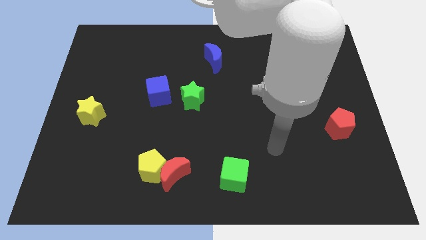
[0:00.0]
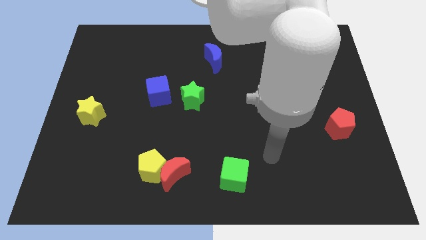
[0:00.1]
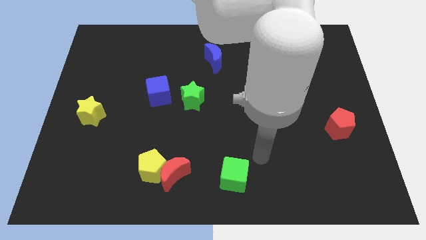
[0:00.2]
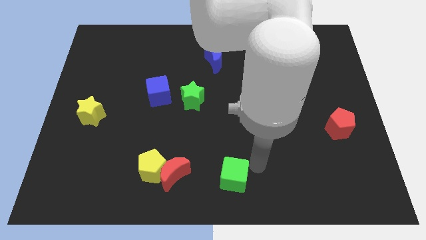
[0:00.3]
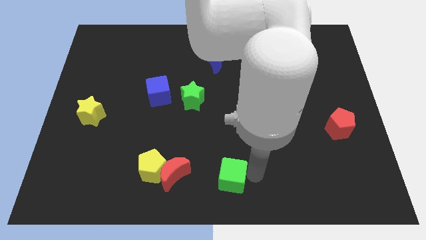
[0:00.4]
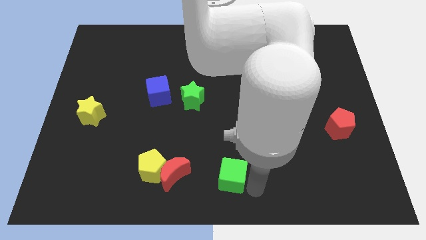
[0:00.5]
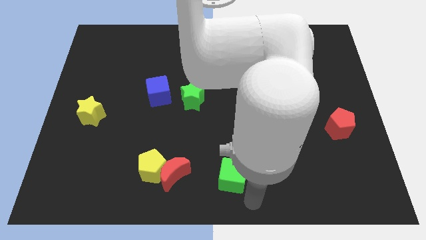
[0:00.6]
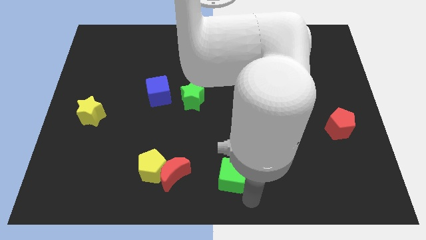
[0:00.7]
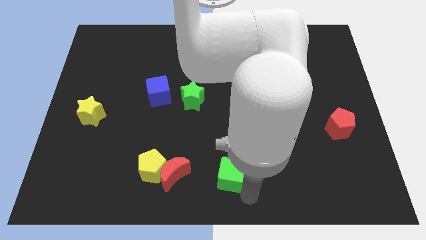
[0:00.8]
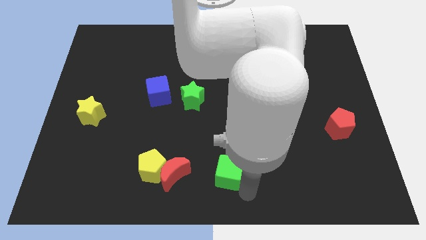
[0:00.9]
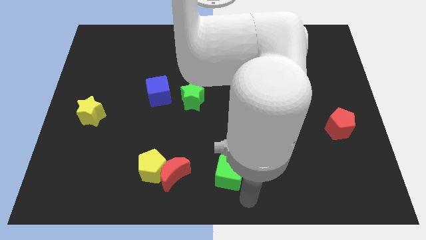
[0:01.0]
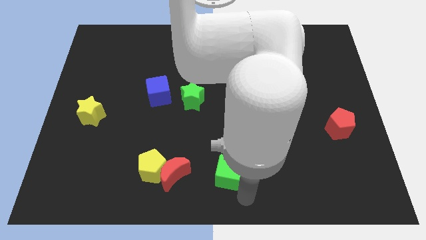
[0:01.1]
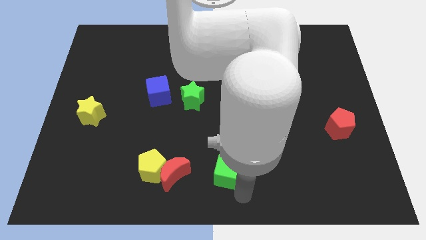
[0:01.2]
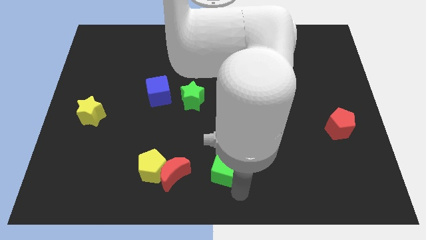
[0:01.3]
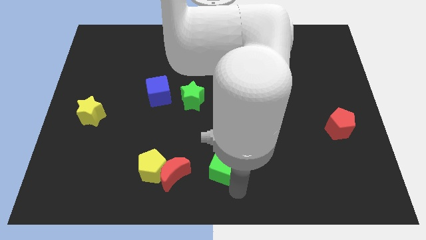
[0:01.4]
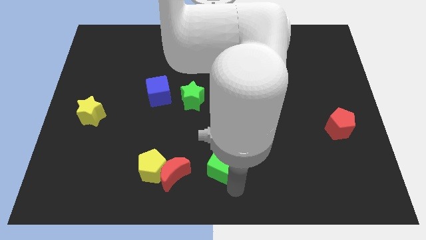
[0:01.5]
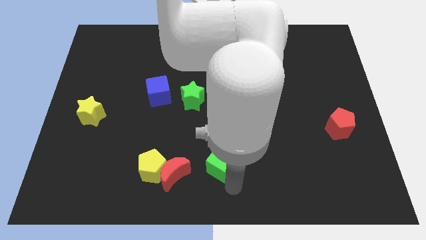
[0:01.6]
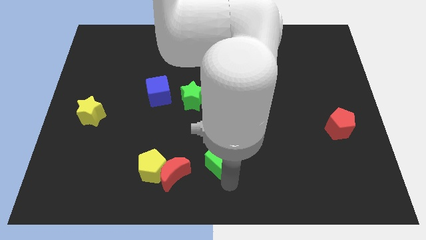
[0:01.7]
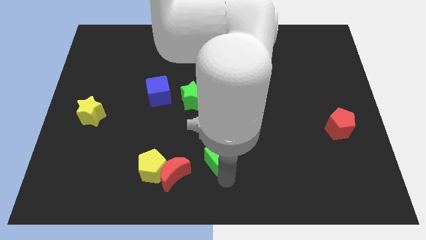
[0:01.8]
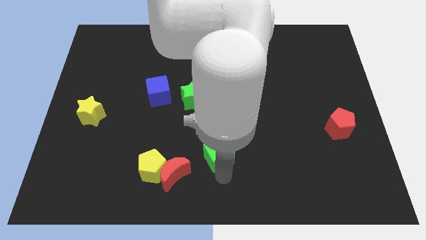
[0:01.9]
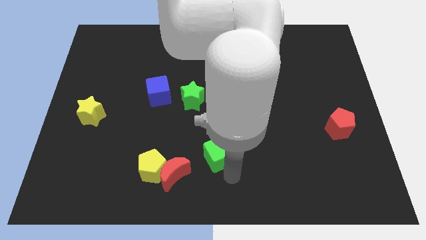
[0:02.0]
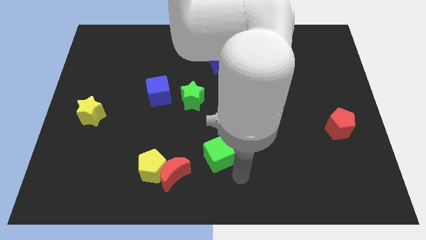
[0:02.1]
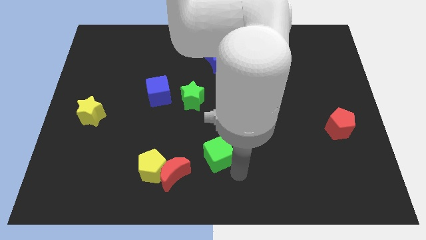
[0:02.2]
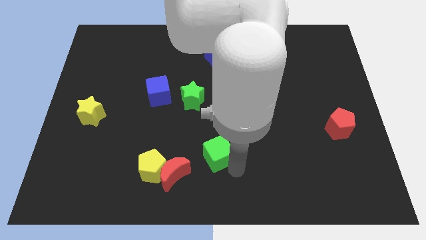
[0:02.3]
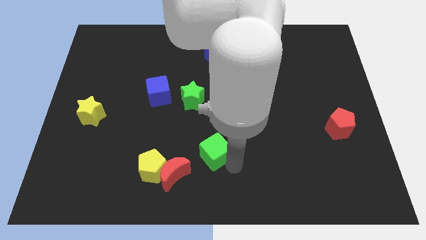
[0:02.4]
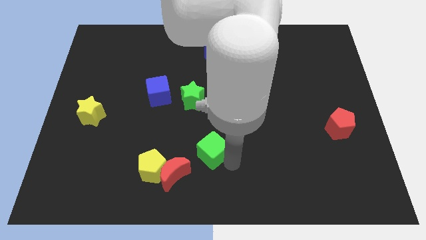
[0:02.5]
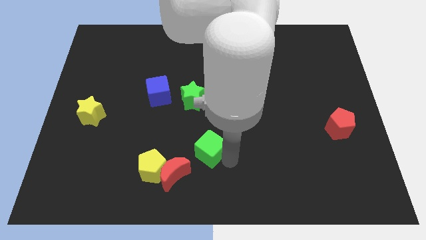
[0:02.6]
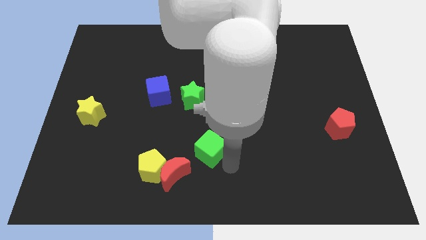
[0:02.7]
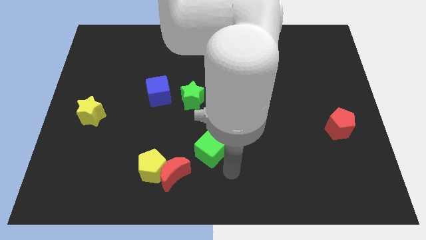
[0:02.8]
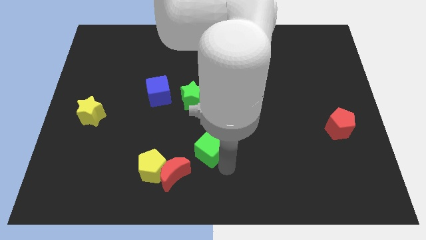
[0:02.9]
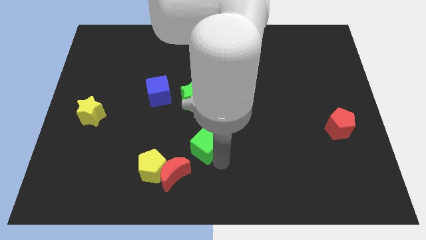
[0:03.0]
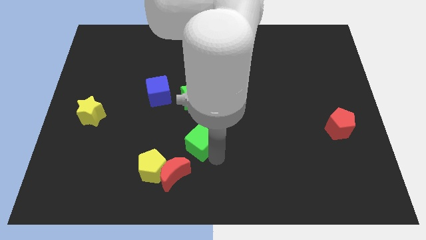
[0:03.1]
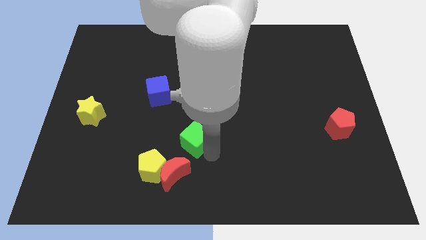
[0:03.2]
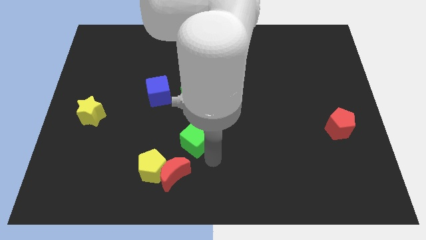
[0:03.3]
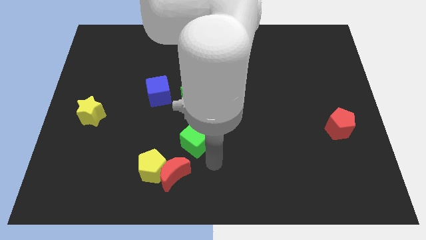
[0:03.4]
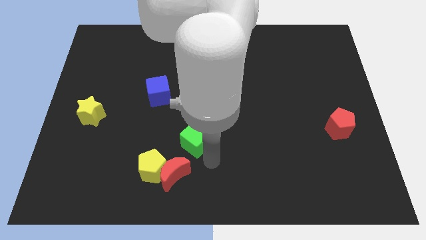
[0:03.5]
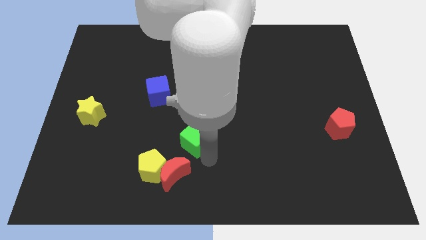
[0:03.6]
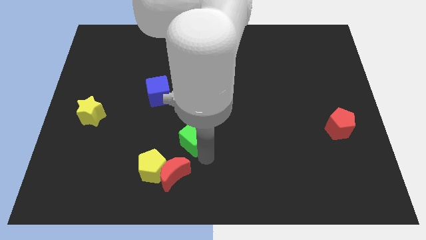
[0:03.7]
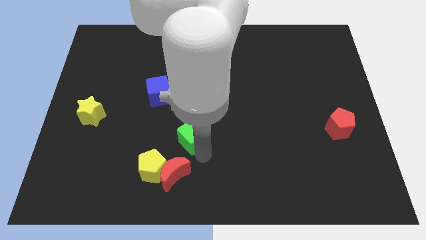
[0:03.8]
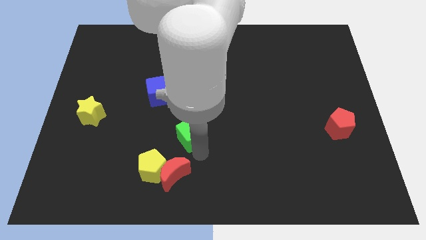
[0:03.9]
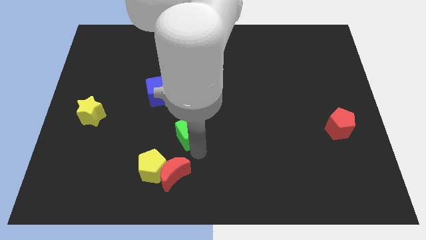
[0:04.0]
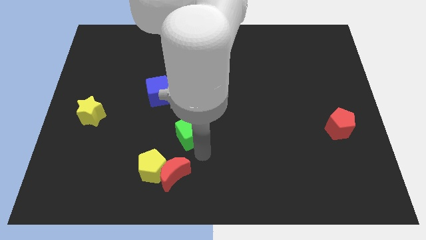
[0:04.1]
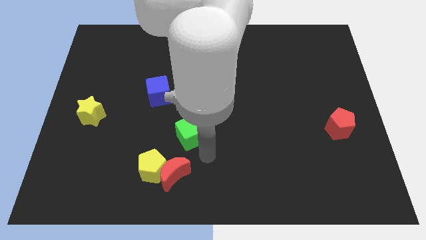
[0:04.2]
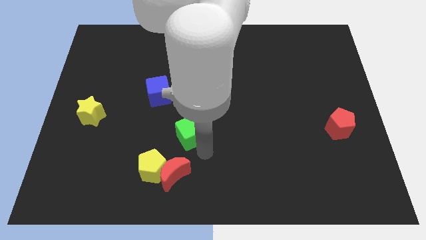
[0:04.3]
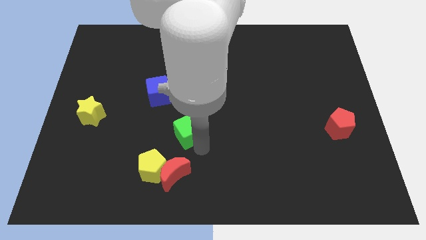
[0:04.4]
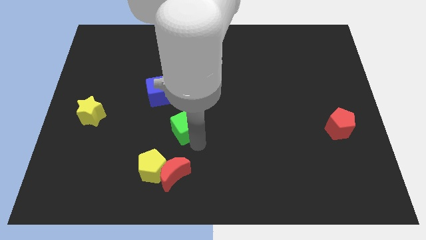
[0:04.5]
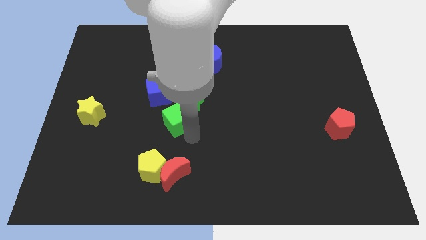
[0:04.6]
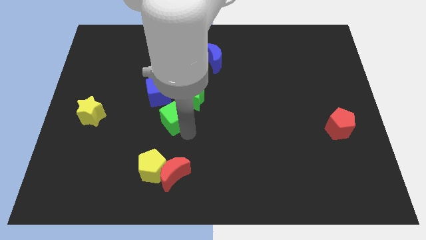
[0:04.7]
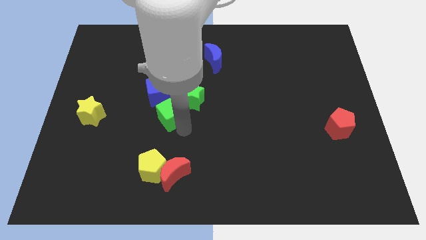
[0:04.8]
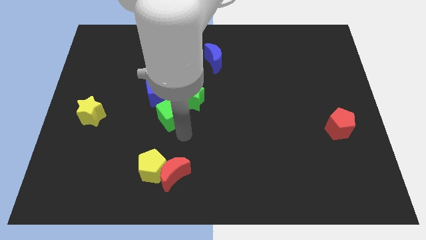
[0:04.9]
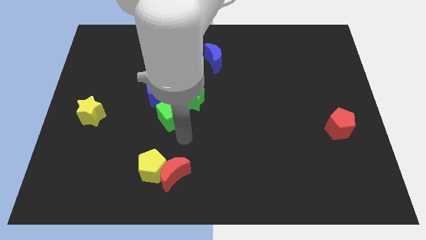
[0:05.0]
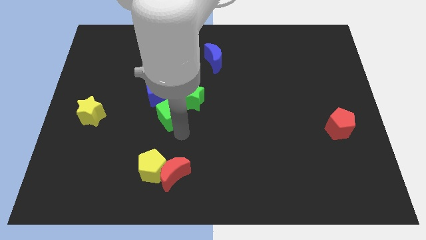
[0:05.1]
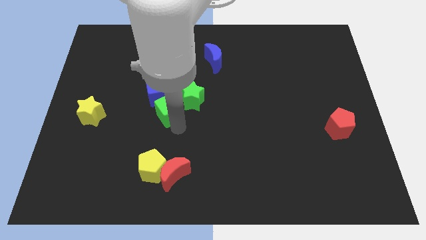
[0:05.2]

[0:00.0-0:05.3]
slide the green cube towards the blue cube

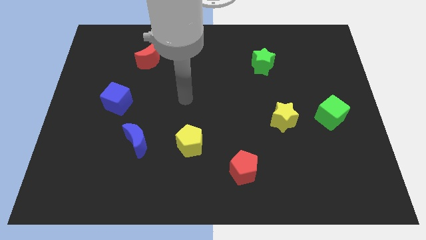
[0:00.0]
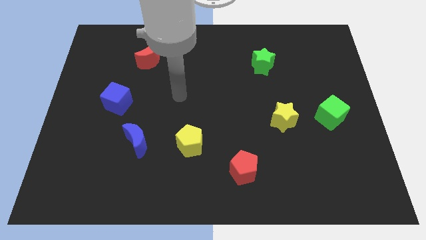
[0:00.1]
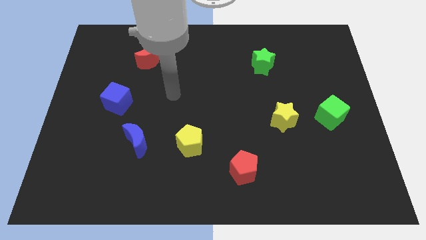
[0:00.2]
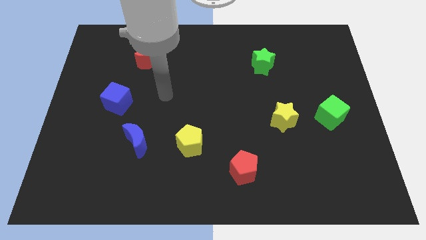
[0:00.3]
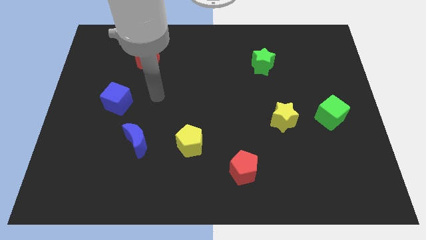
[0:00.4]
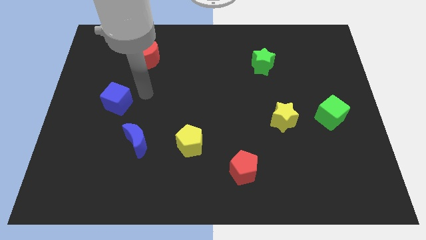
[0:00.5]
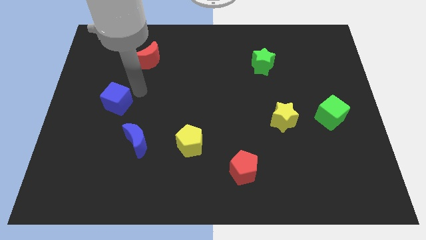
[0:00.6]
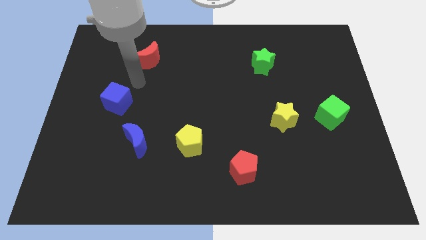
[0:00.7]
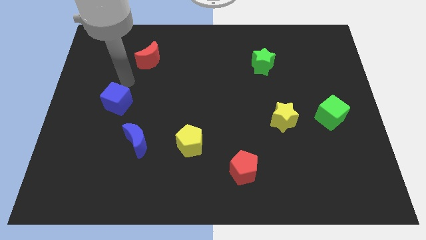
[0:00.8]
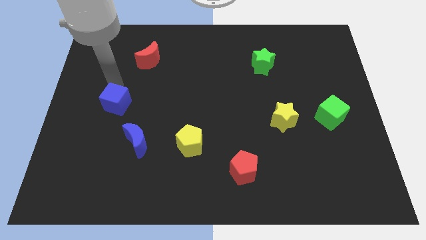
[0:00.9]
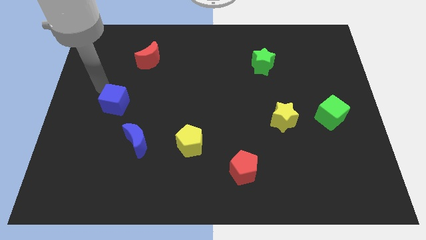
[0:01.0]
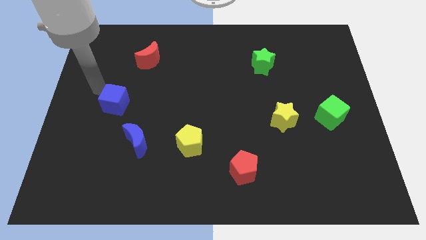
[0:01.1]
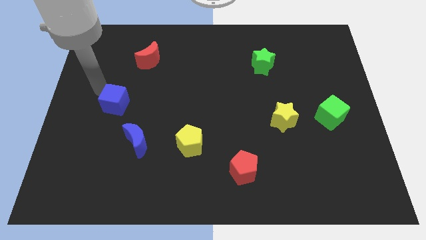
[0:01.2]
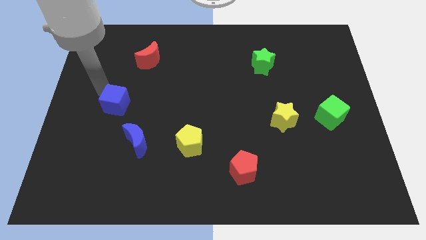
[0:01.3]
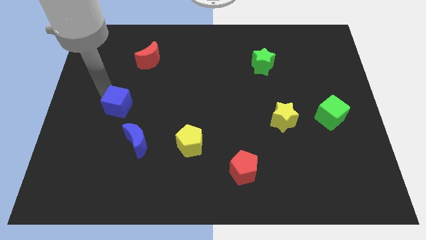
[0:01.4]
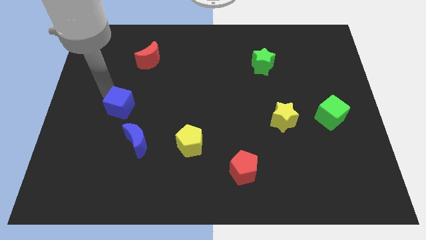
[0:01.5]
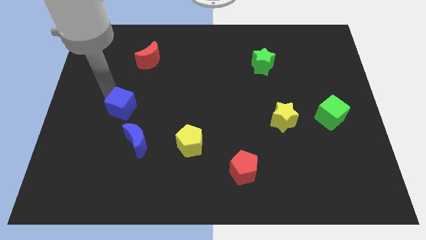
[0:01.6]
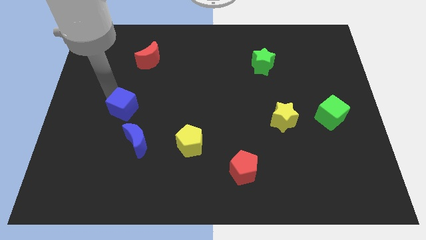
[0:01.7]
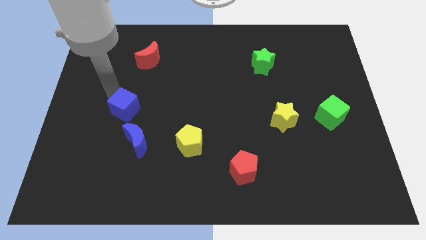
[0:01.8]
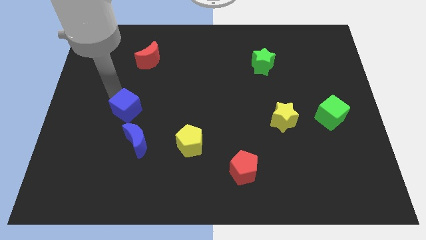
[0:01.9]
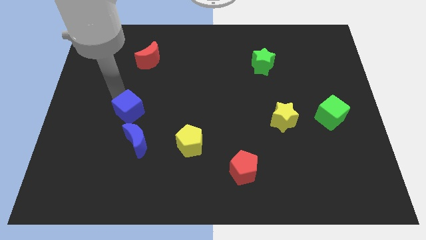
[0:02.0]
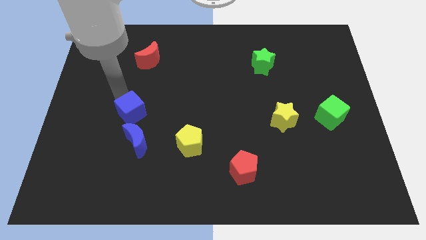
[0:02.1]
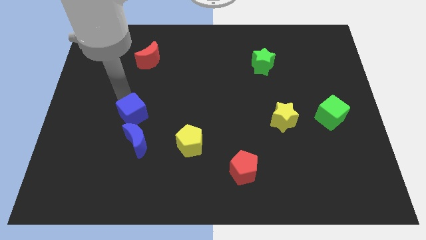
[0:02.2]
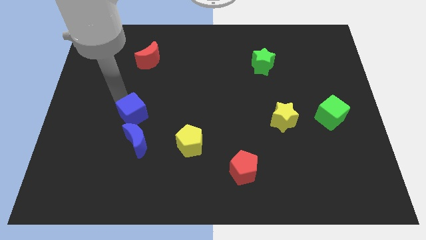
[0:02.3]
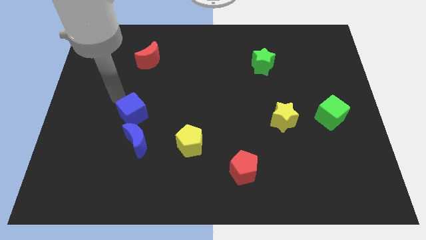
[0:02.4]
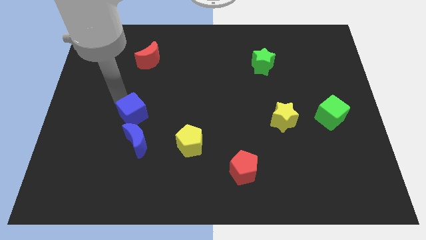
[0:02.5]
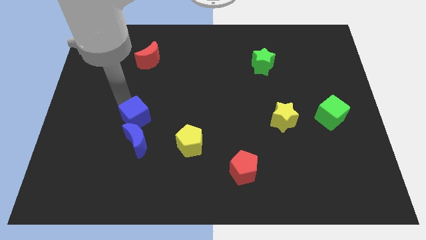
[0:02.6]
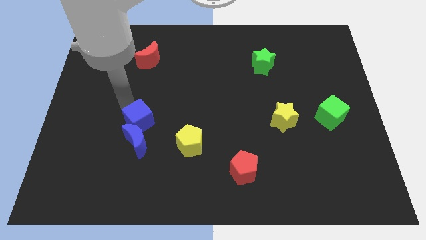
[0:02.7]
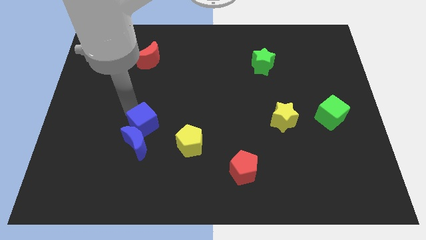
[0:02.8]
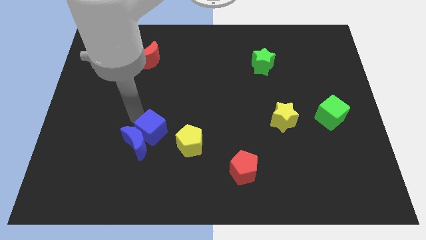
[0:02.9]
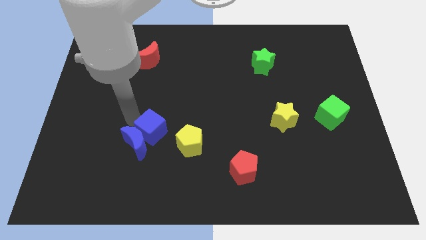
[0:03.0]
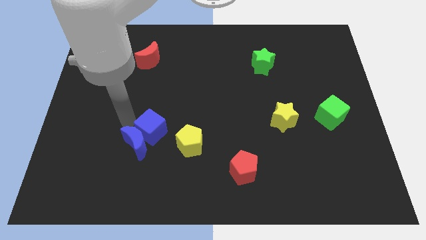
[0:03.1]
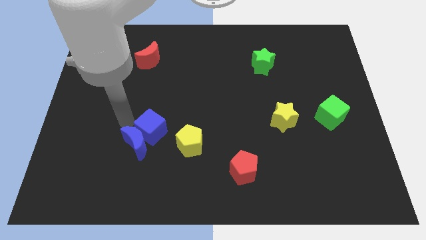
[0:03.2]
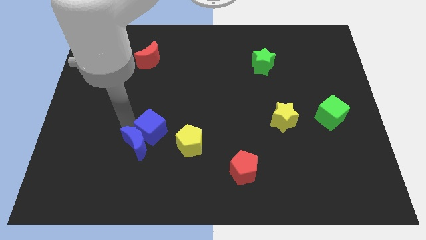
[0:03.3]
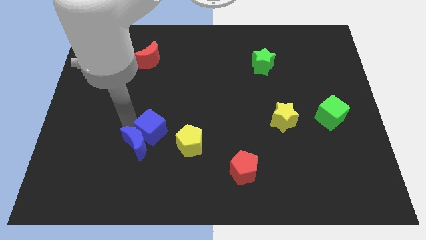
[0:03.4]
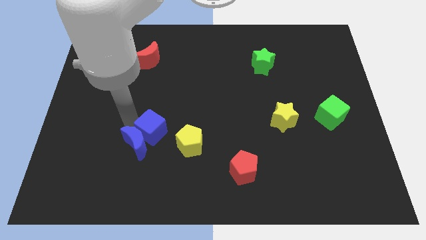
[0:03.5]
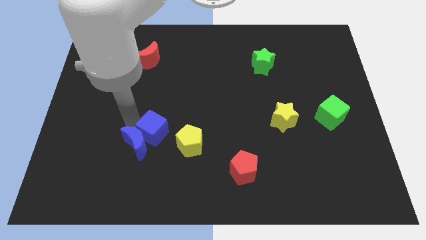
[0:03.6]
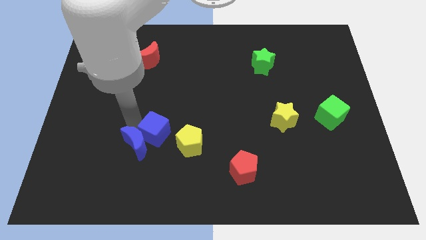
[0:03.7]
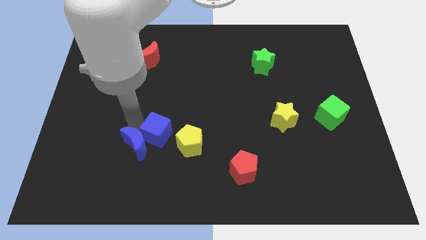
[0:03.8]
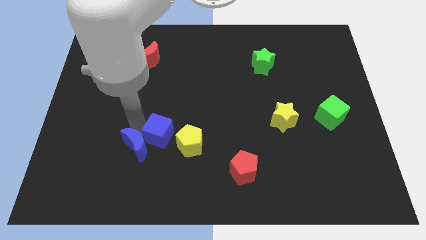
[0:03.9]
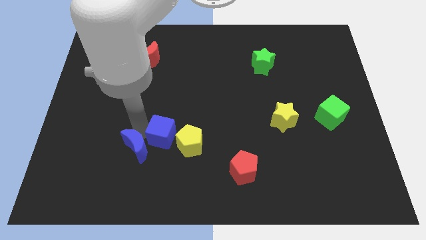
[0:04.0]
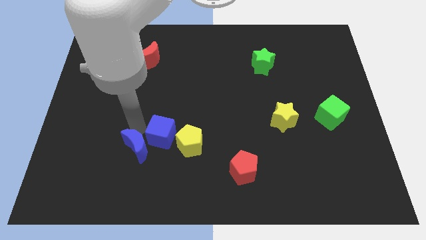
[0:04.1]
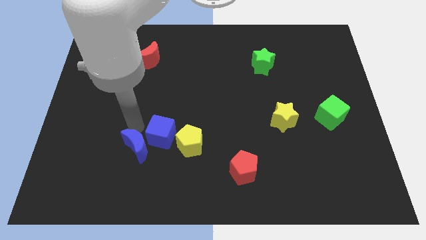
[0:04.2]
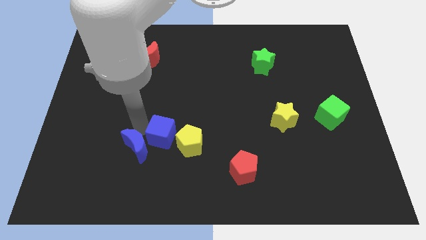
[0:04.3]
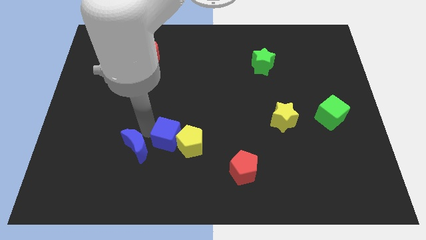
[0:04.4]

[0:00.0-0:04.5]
slide the blue cube close to the yellow pentagon
